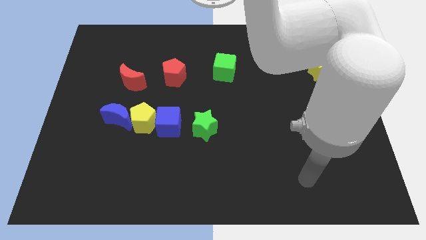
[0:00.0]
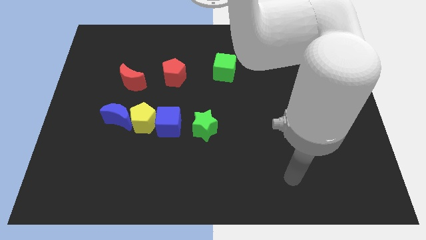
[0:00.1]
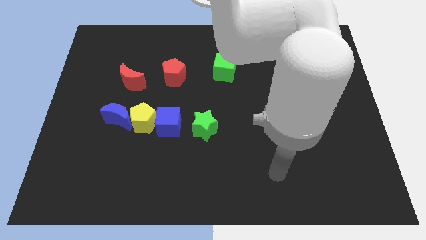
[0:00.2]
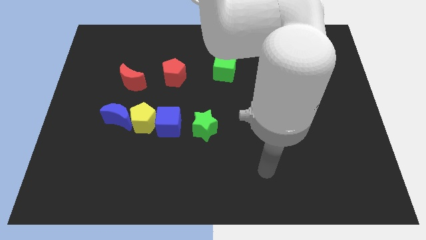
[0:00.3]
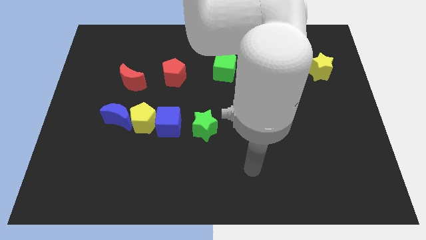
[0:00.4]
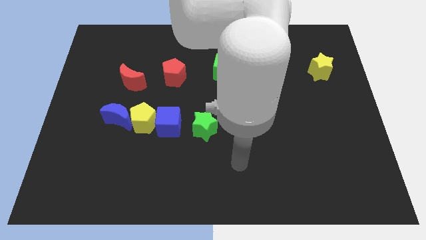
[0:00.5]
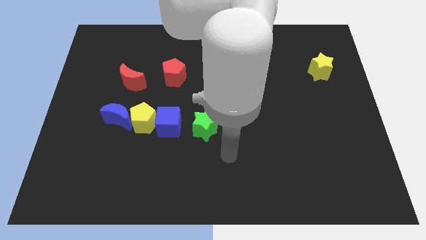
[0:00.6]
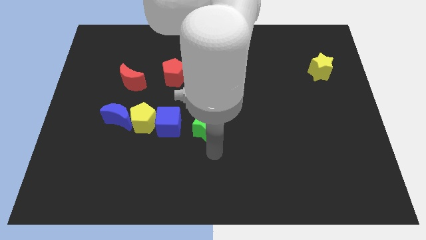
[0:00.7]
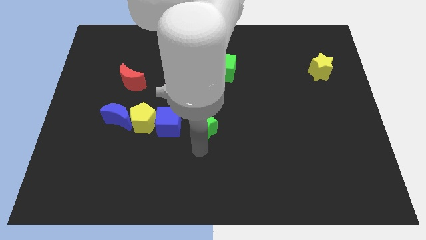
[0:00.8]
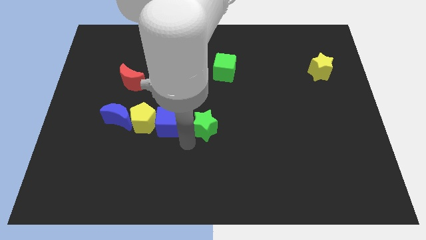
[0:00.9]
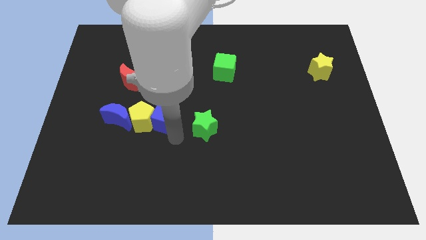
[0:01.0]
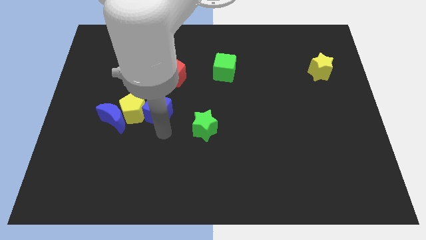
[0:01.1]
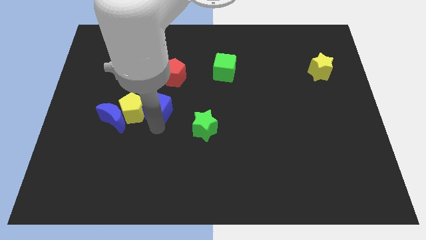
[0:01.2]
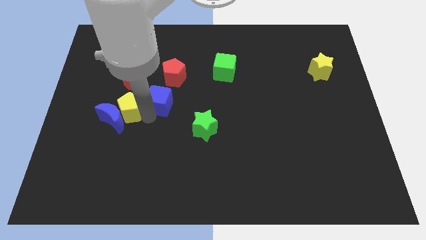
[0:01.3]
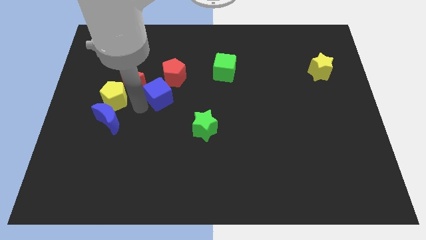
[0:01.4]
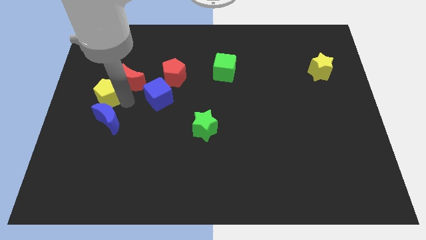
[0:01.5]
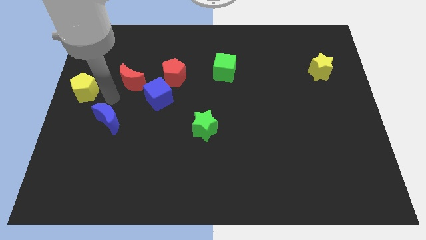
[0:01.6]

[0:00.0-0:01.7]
separate the blue moon from the yellow pentagon

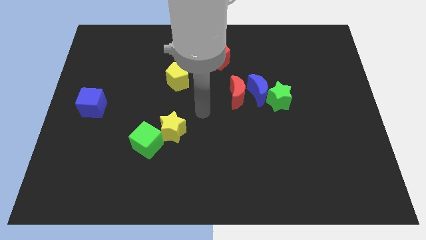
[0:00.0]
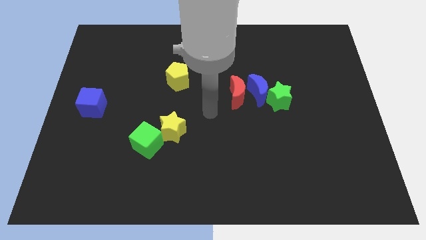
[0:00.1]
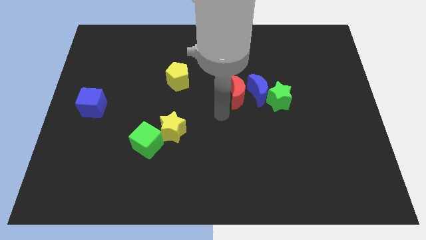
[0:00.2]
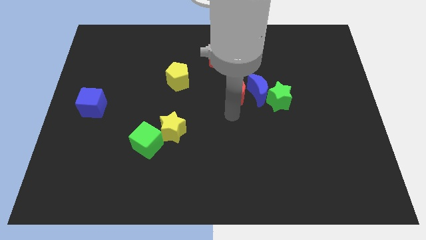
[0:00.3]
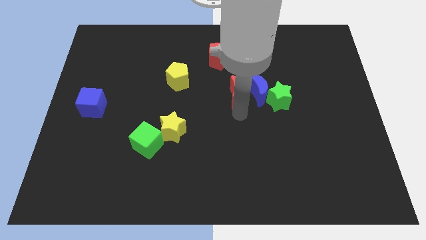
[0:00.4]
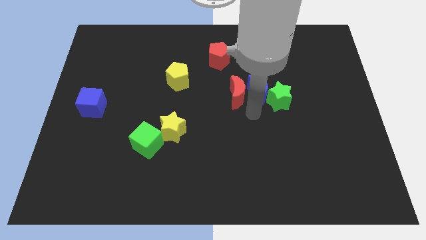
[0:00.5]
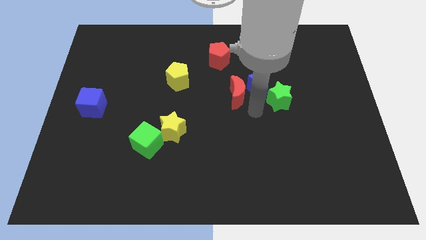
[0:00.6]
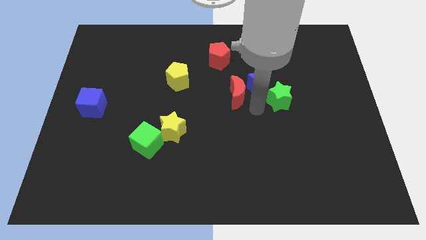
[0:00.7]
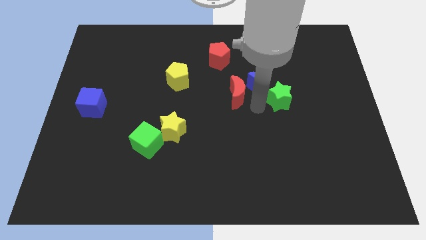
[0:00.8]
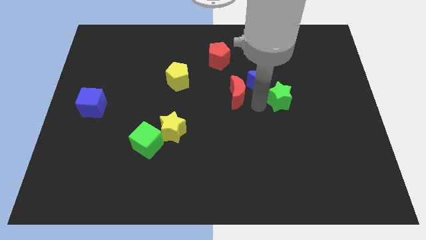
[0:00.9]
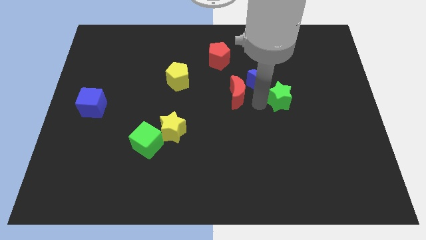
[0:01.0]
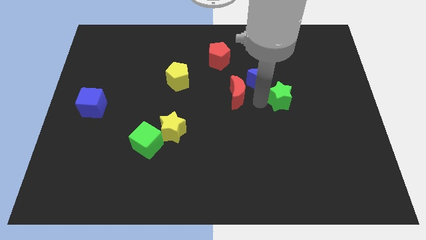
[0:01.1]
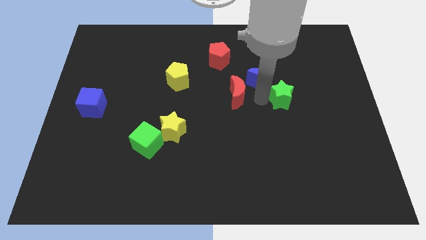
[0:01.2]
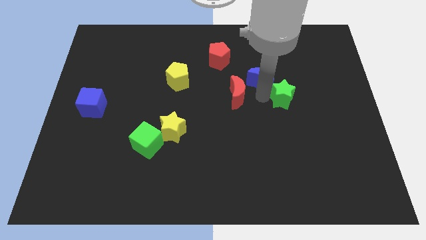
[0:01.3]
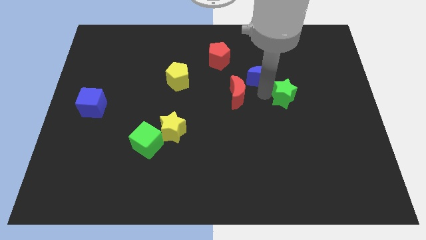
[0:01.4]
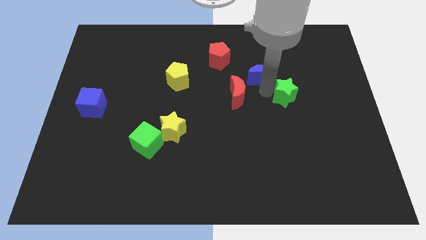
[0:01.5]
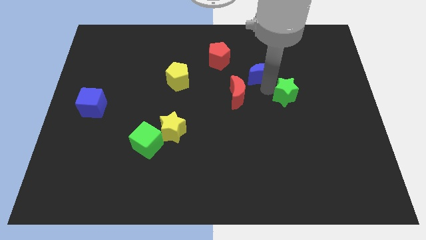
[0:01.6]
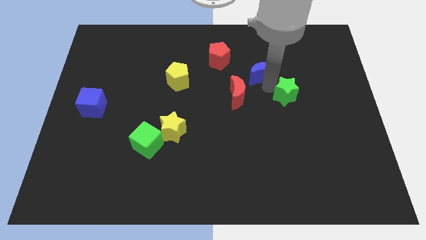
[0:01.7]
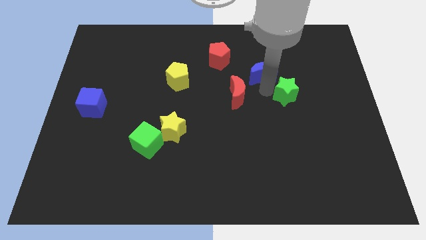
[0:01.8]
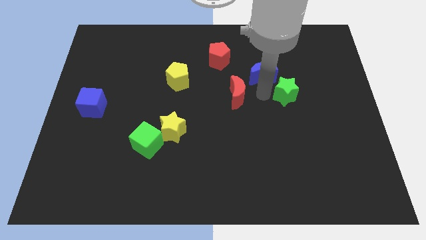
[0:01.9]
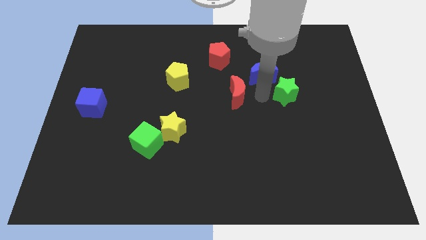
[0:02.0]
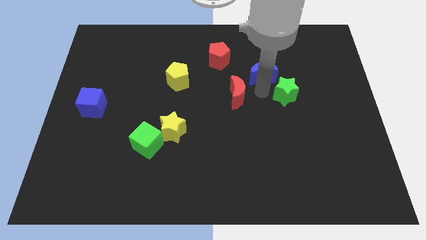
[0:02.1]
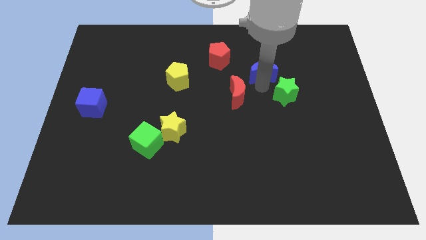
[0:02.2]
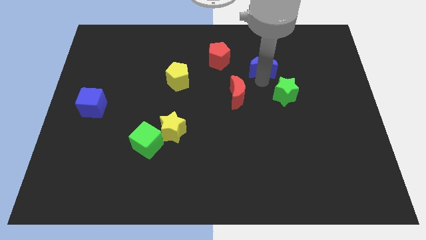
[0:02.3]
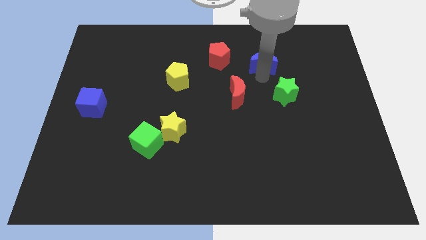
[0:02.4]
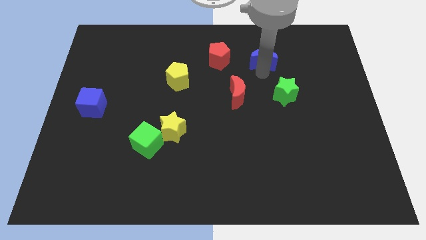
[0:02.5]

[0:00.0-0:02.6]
pull the blue moon apart from the red moon and green star

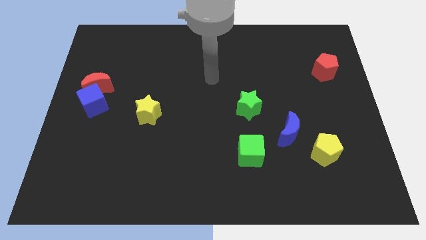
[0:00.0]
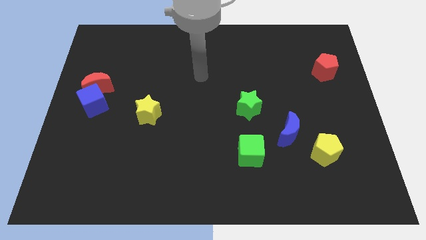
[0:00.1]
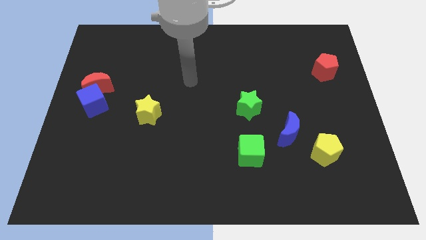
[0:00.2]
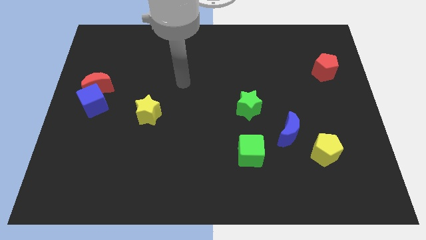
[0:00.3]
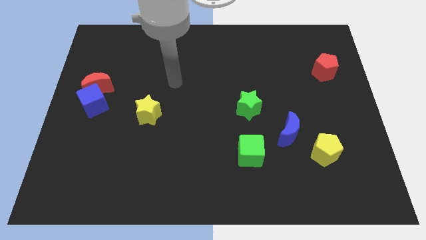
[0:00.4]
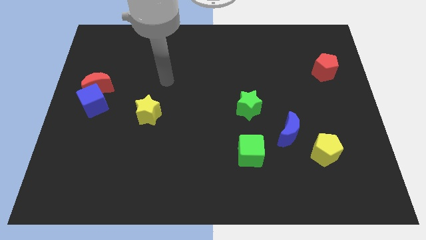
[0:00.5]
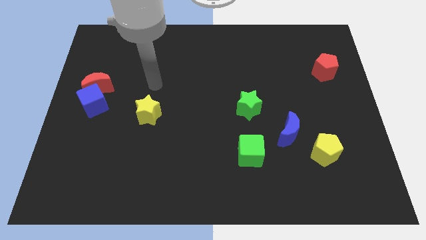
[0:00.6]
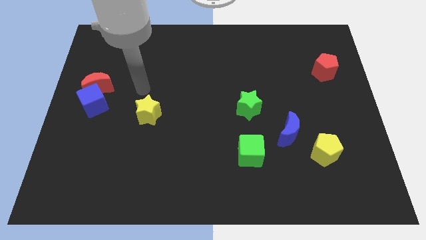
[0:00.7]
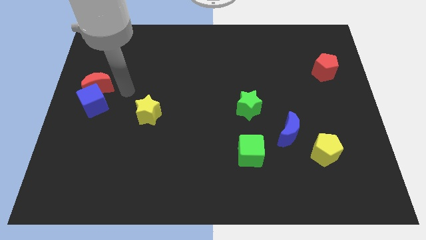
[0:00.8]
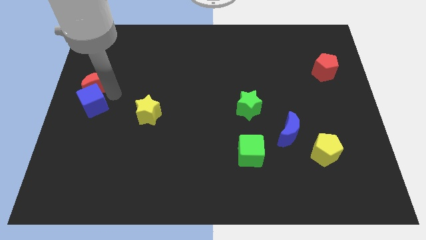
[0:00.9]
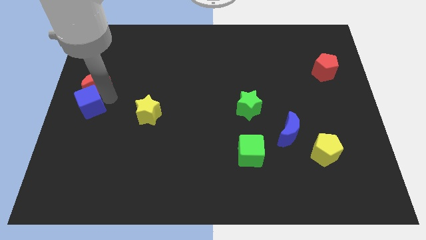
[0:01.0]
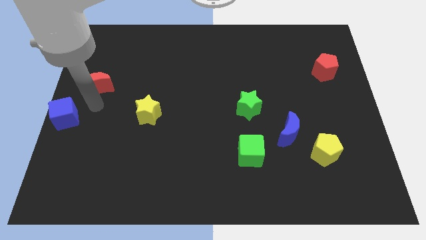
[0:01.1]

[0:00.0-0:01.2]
separate the red moon from the blue cube

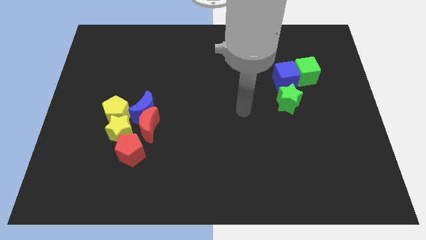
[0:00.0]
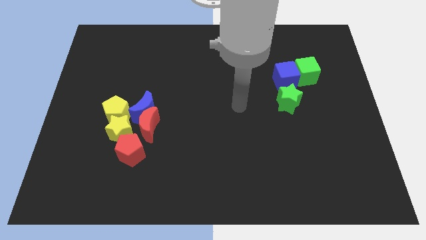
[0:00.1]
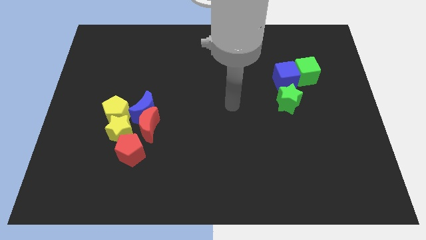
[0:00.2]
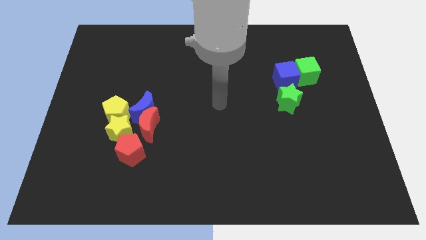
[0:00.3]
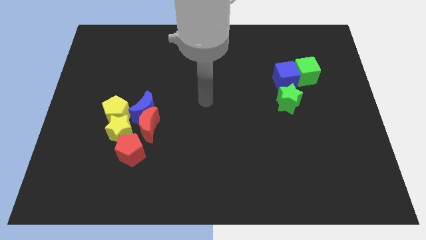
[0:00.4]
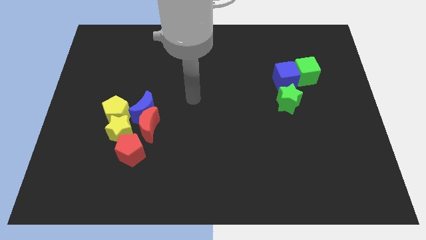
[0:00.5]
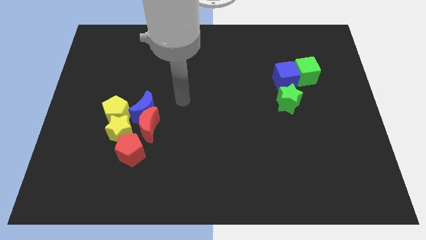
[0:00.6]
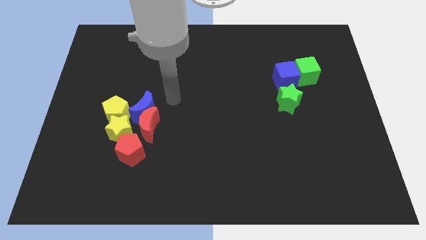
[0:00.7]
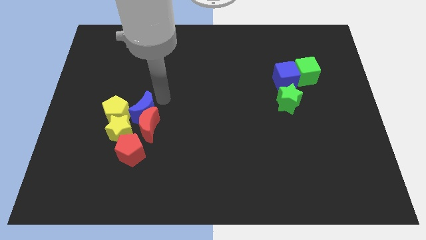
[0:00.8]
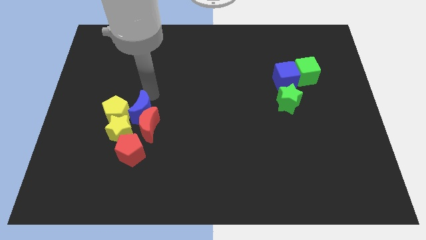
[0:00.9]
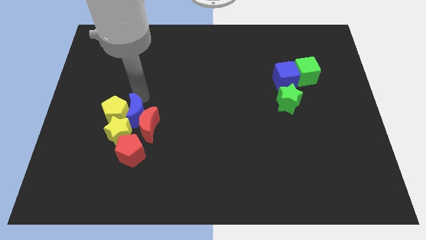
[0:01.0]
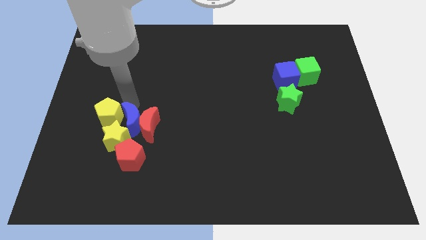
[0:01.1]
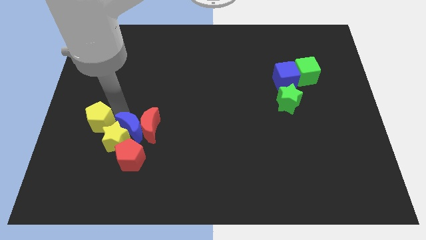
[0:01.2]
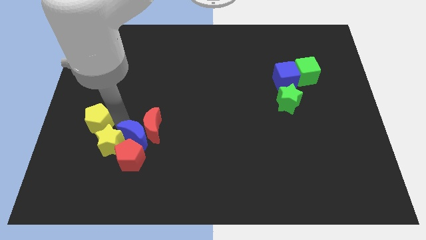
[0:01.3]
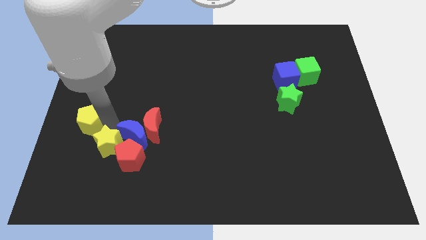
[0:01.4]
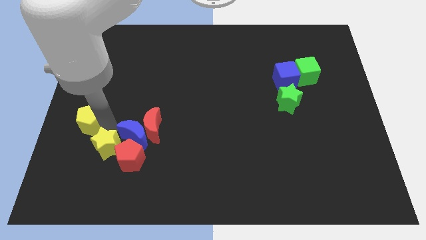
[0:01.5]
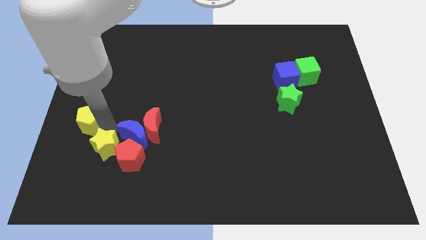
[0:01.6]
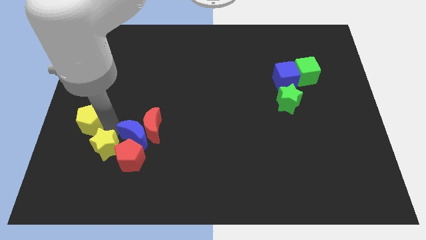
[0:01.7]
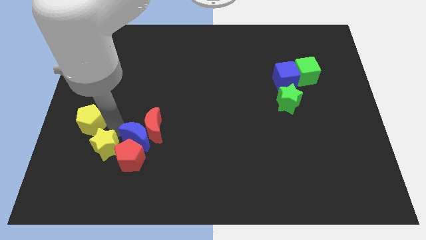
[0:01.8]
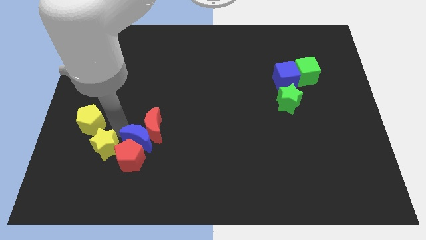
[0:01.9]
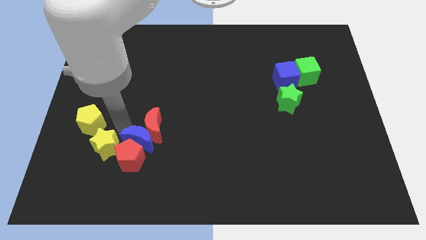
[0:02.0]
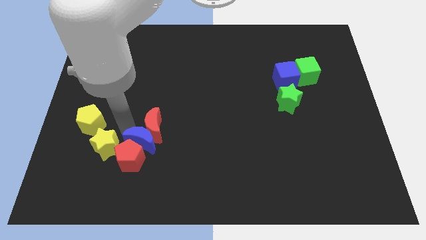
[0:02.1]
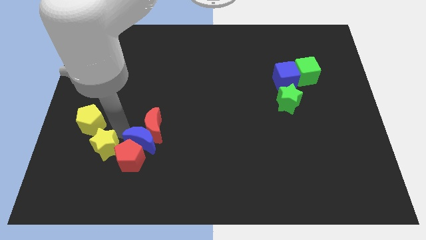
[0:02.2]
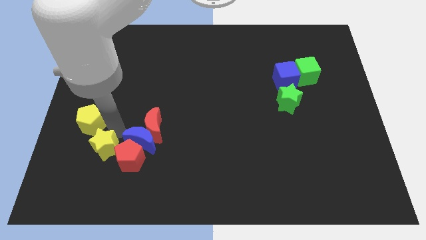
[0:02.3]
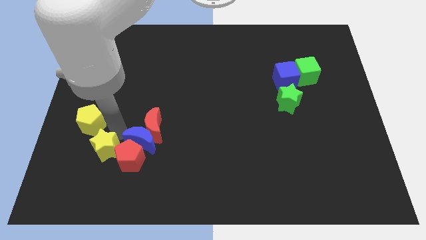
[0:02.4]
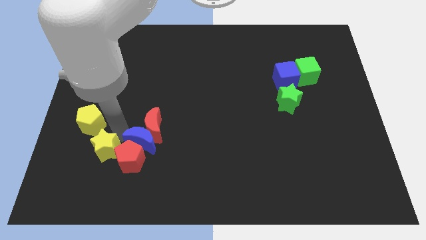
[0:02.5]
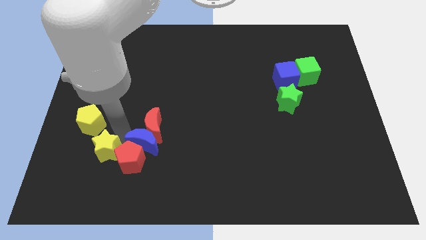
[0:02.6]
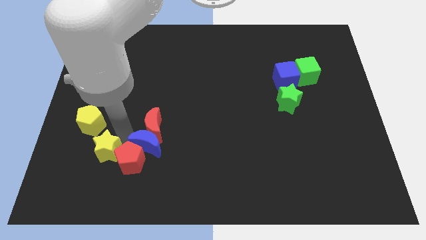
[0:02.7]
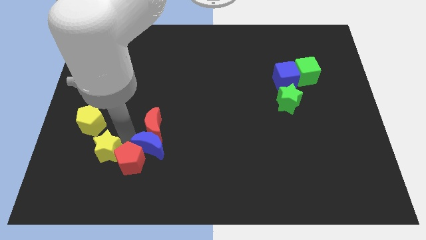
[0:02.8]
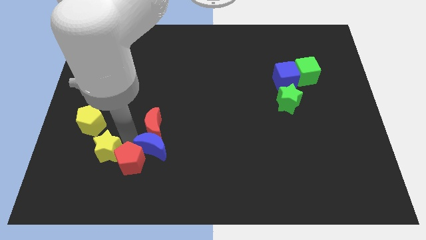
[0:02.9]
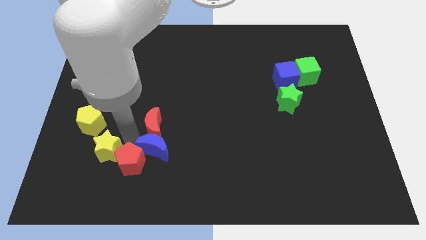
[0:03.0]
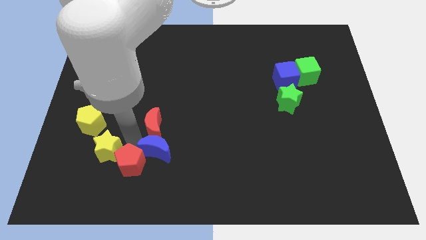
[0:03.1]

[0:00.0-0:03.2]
move the blue moon away from the red moon, yellow pentagon, and yellow star

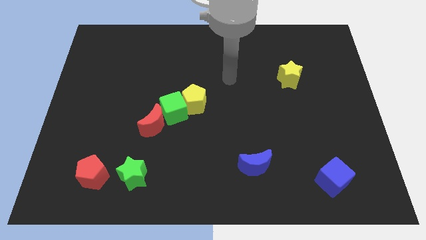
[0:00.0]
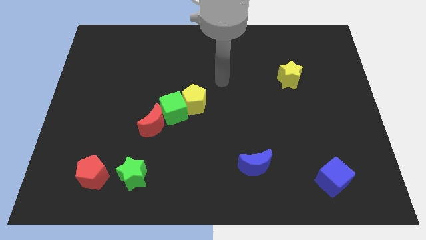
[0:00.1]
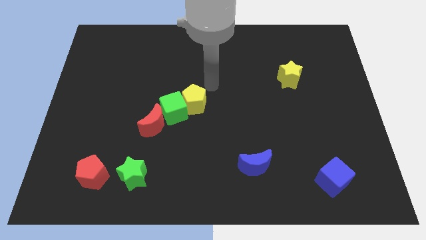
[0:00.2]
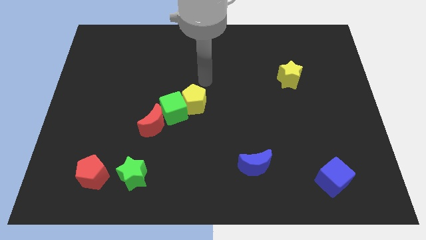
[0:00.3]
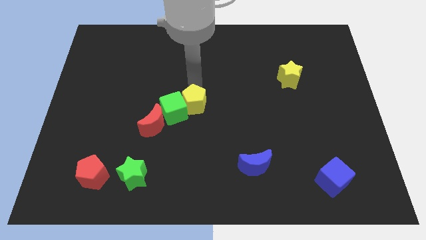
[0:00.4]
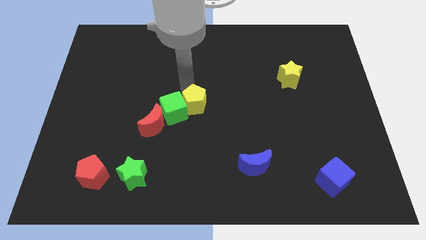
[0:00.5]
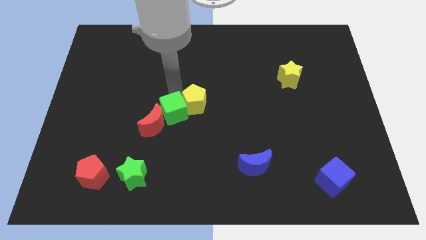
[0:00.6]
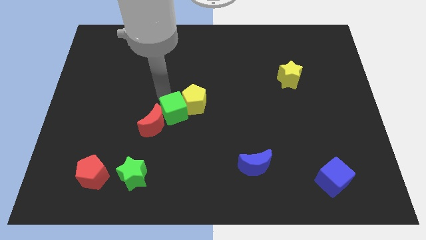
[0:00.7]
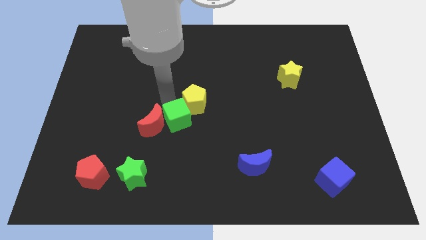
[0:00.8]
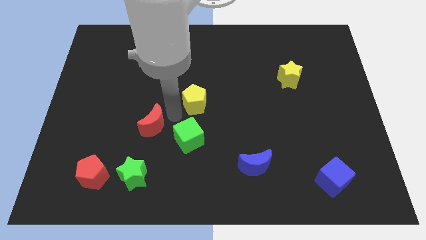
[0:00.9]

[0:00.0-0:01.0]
pull the yellow pentagon apart from the green cube
